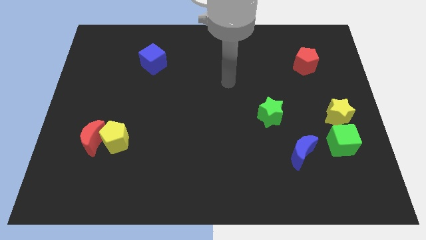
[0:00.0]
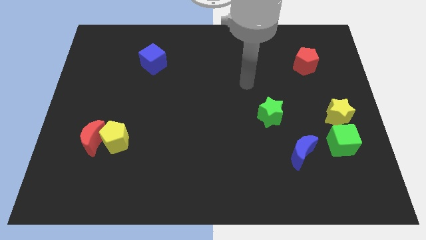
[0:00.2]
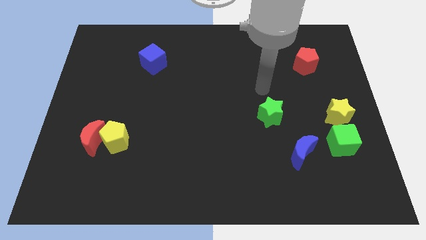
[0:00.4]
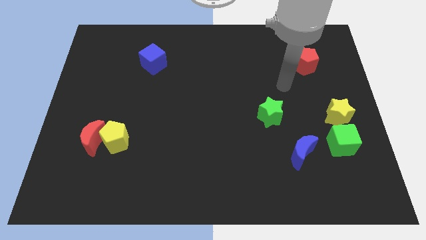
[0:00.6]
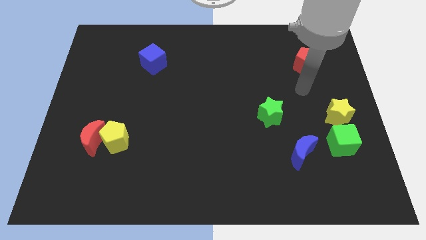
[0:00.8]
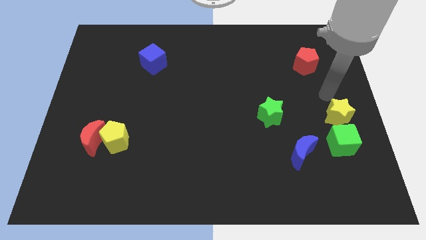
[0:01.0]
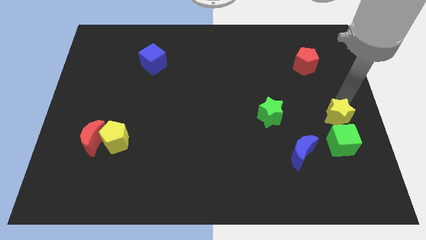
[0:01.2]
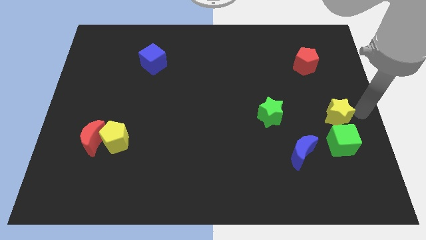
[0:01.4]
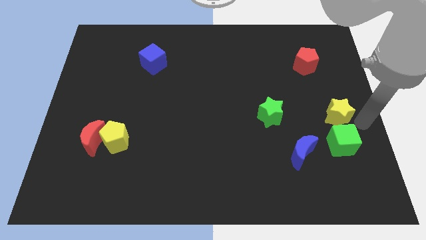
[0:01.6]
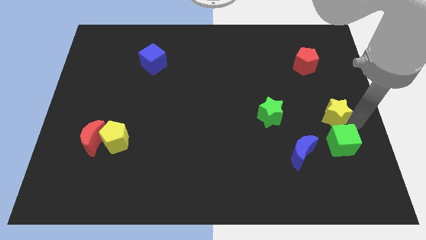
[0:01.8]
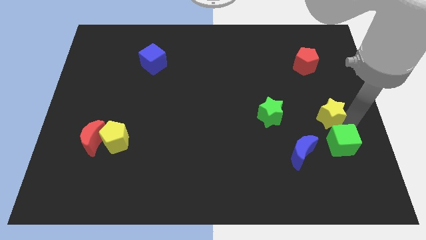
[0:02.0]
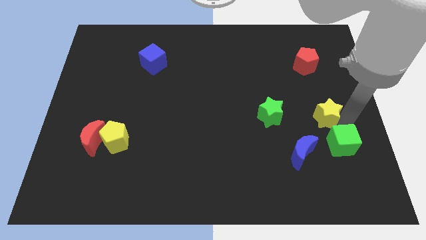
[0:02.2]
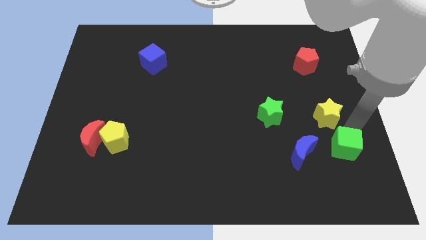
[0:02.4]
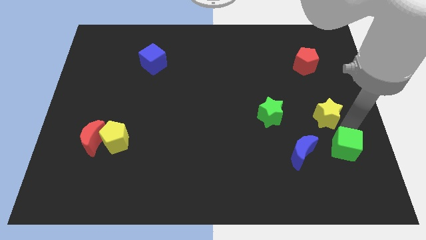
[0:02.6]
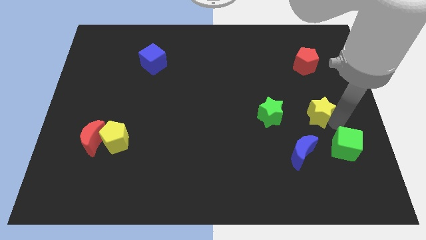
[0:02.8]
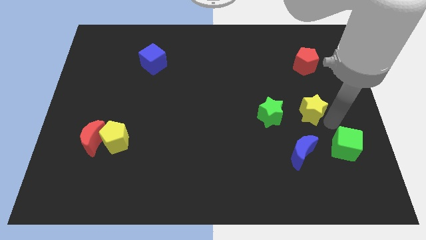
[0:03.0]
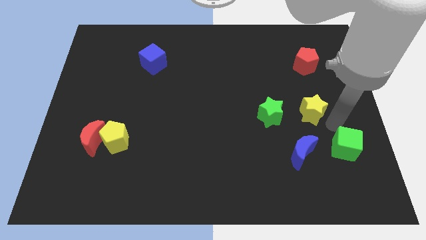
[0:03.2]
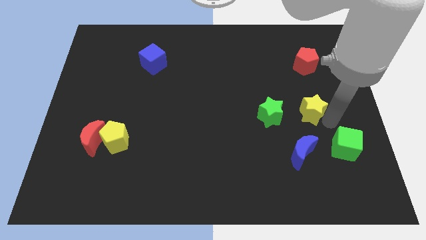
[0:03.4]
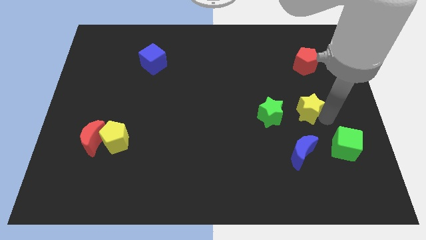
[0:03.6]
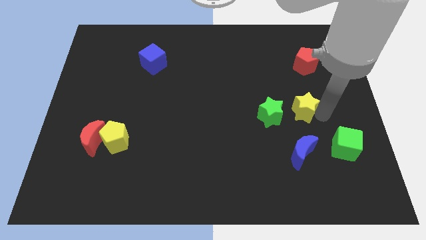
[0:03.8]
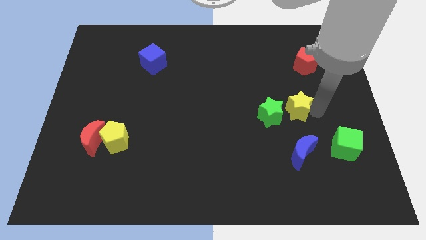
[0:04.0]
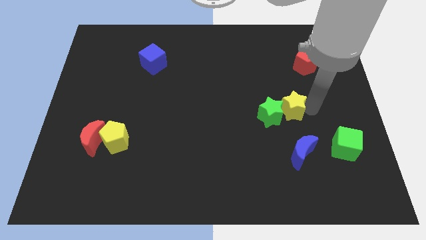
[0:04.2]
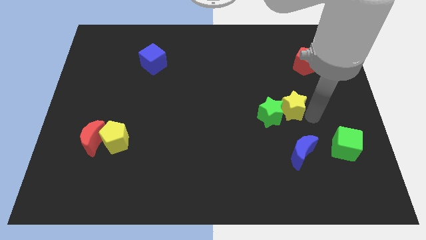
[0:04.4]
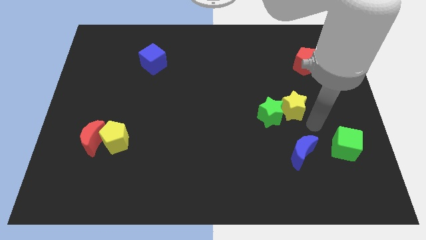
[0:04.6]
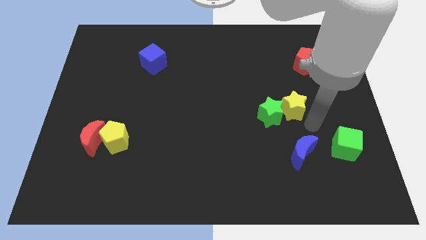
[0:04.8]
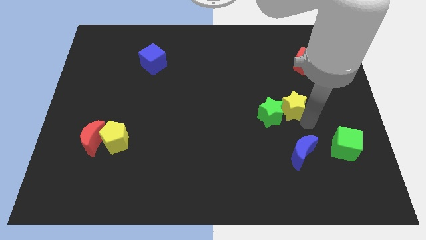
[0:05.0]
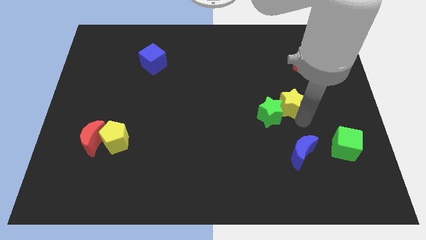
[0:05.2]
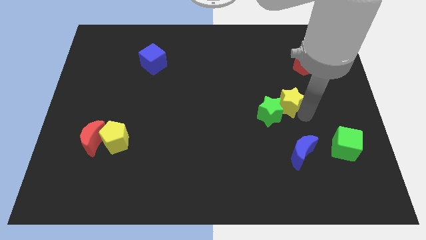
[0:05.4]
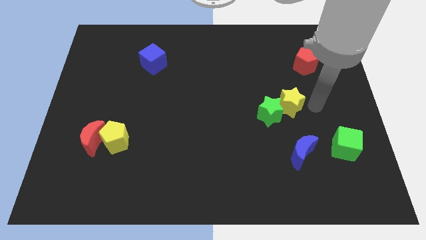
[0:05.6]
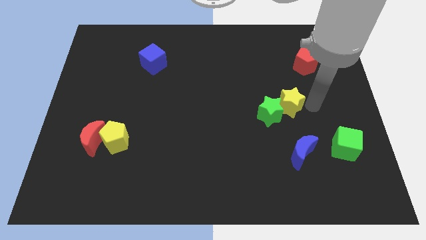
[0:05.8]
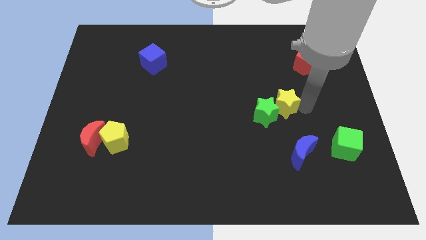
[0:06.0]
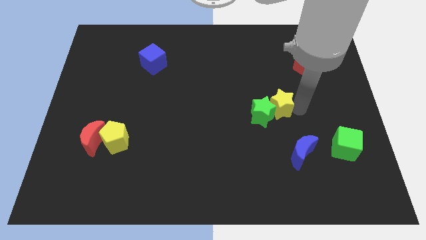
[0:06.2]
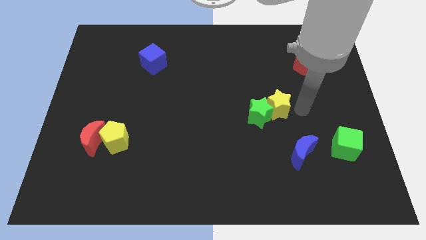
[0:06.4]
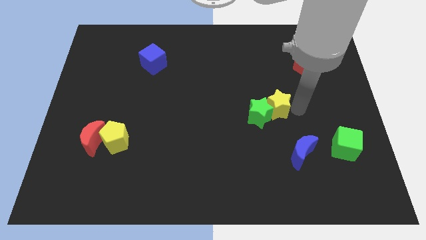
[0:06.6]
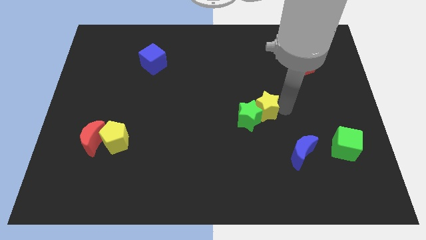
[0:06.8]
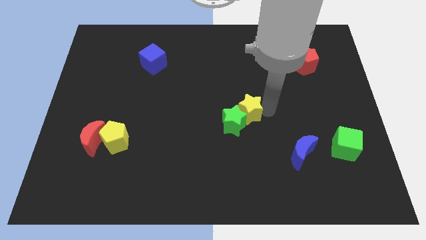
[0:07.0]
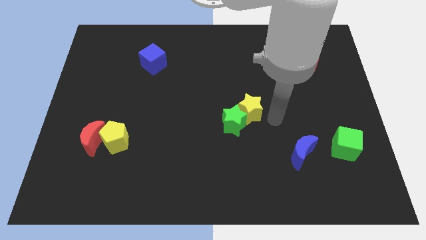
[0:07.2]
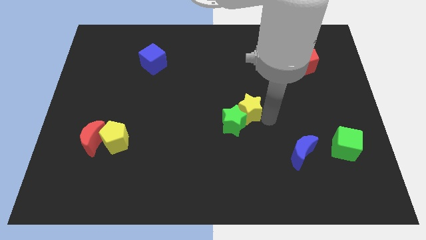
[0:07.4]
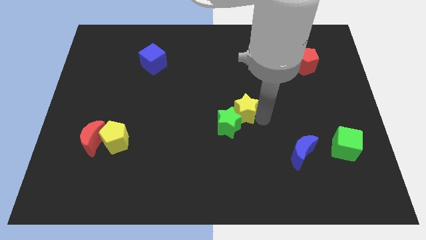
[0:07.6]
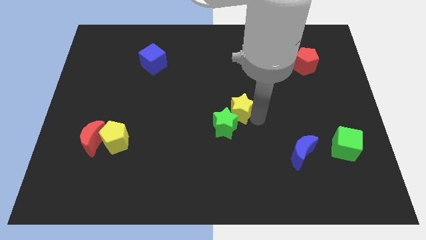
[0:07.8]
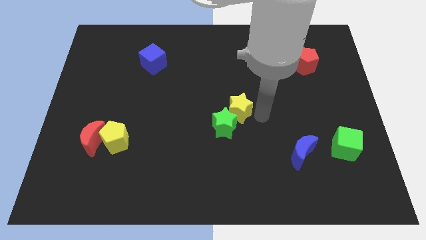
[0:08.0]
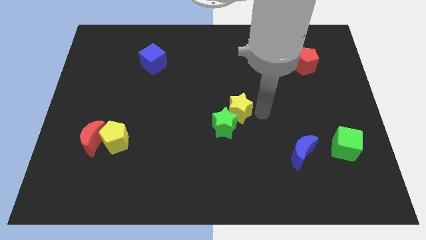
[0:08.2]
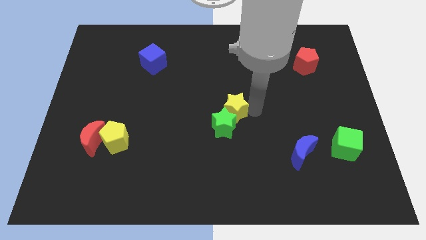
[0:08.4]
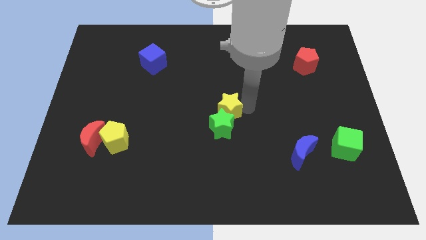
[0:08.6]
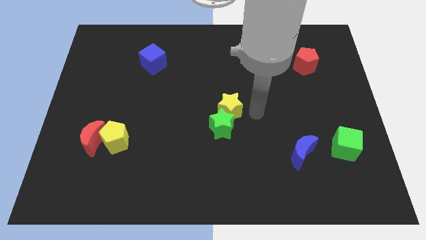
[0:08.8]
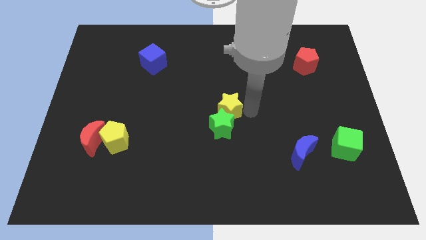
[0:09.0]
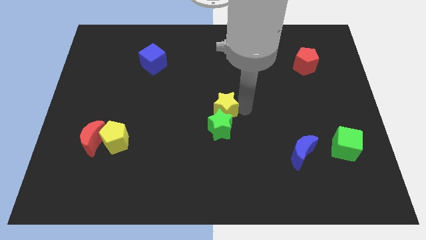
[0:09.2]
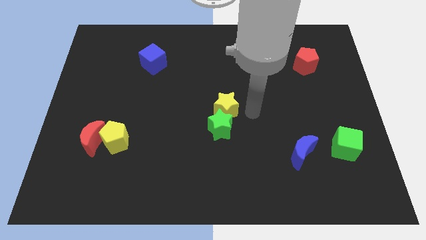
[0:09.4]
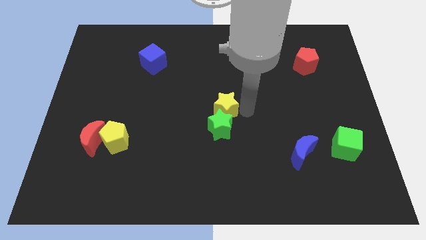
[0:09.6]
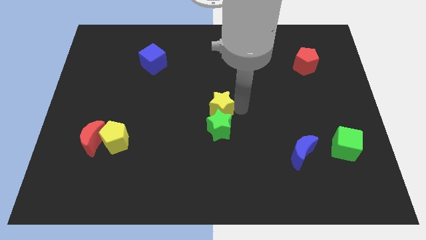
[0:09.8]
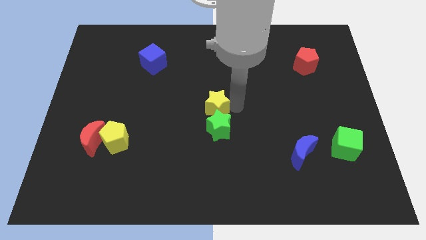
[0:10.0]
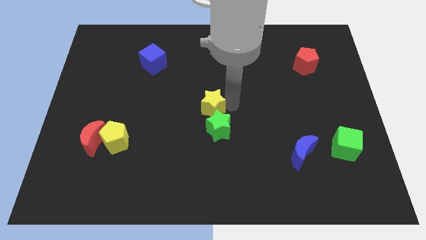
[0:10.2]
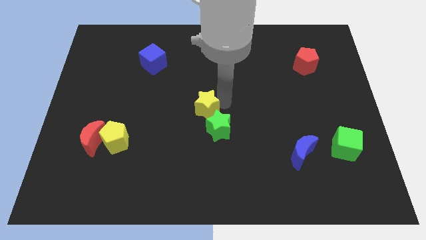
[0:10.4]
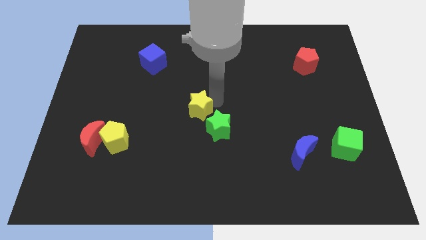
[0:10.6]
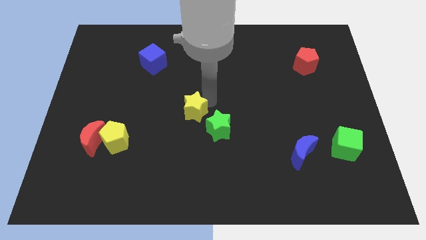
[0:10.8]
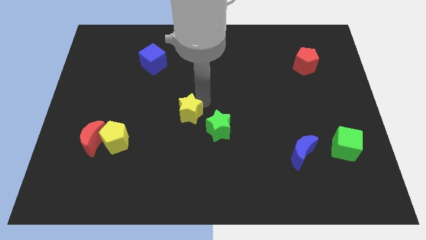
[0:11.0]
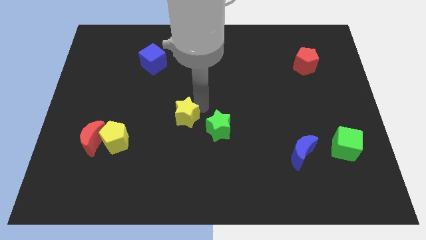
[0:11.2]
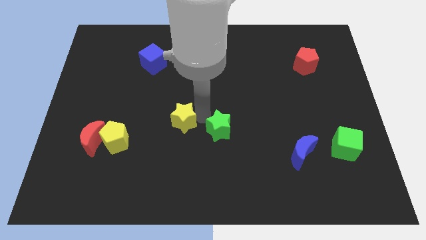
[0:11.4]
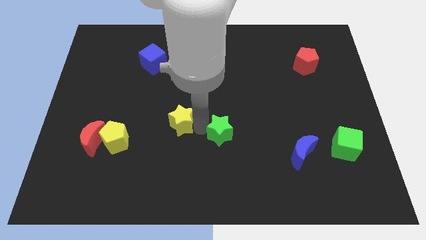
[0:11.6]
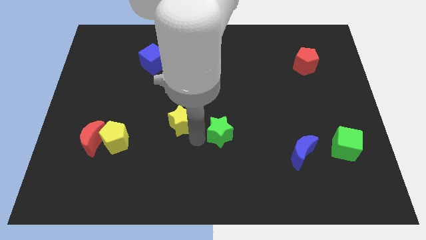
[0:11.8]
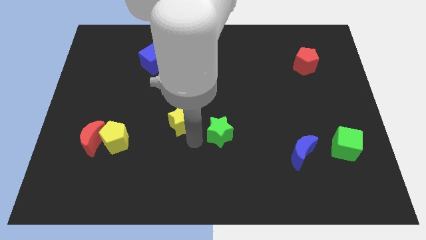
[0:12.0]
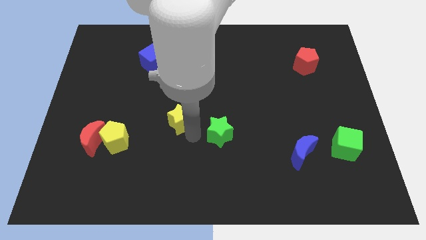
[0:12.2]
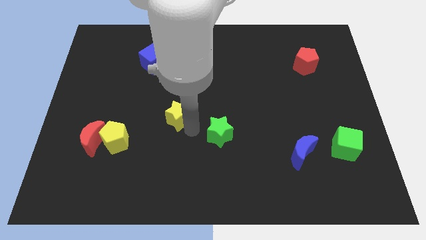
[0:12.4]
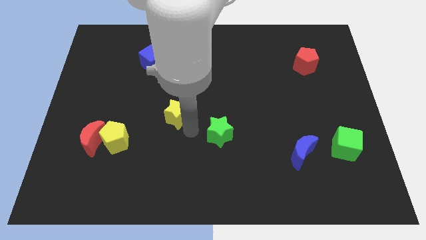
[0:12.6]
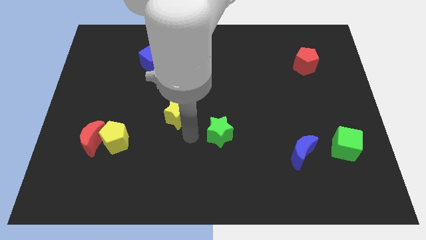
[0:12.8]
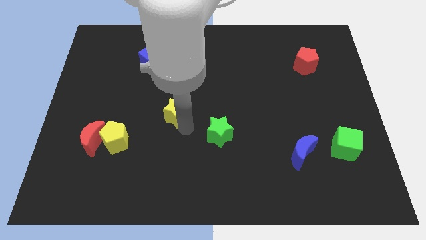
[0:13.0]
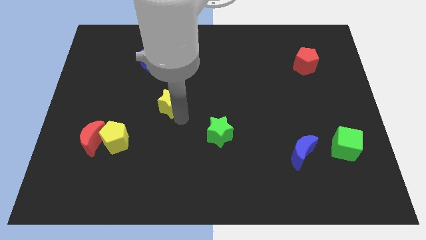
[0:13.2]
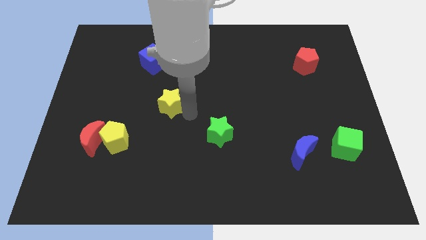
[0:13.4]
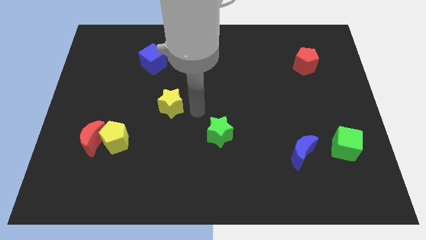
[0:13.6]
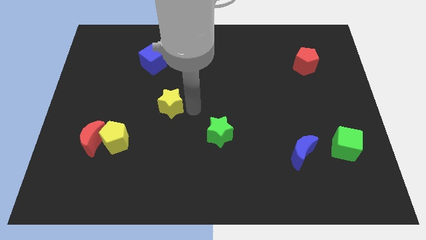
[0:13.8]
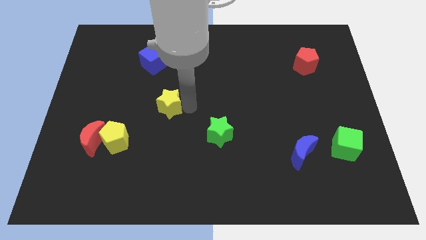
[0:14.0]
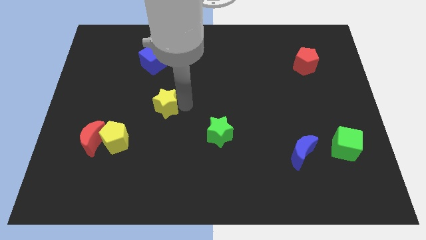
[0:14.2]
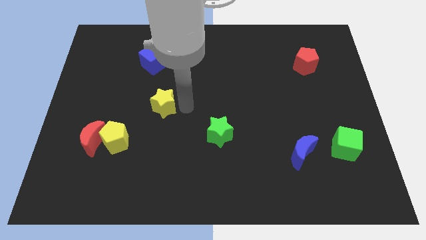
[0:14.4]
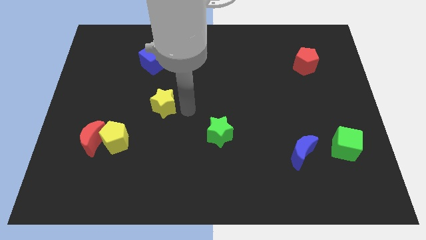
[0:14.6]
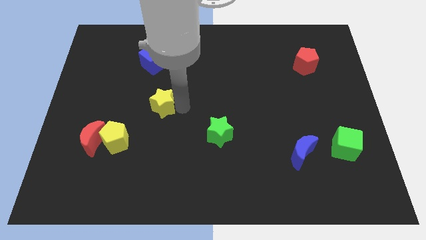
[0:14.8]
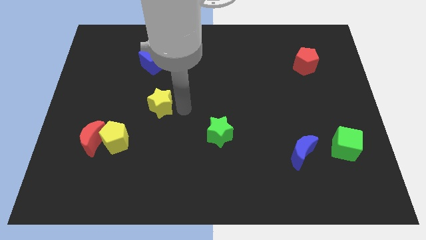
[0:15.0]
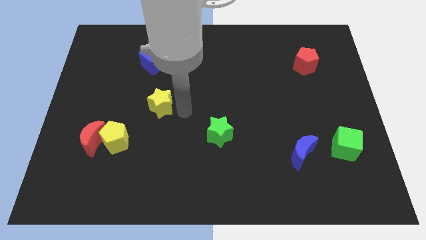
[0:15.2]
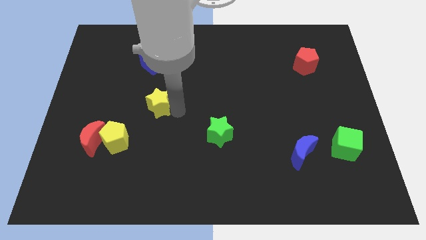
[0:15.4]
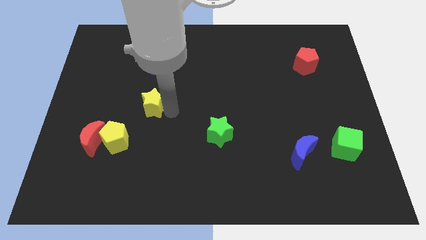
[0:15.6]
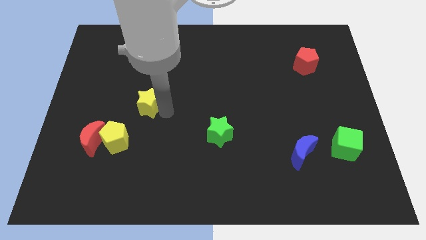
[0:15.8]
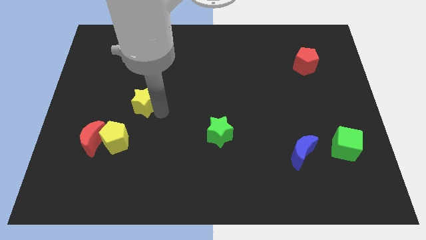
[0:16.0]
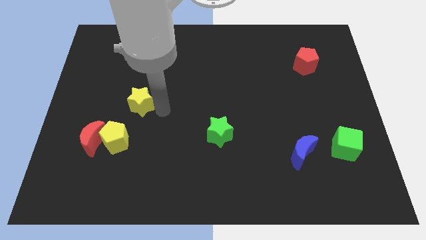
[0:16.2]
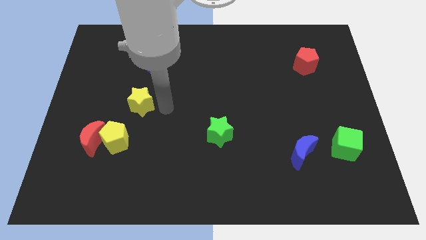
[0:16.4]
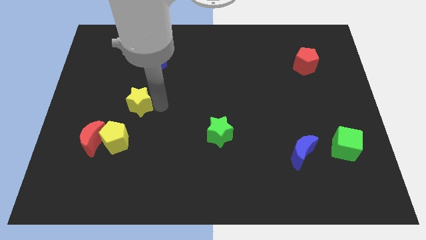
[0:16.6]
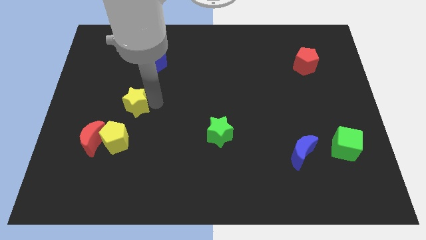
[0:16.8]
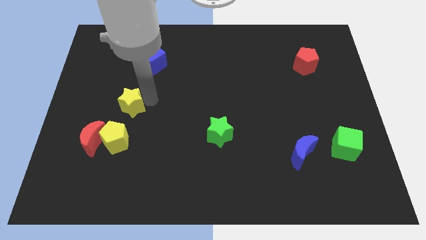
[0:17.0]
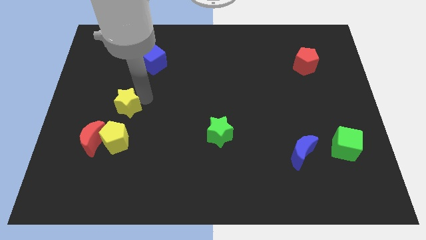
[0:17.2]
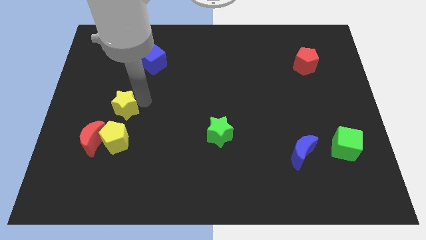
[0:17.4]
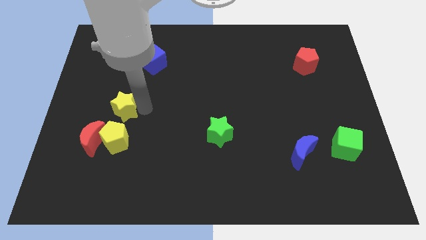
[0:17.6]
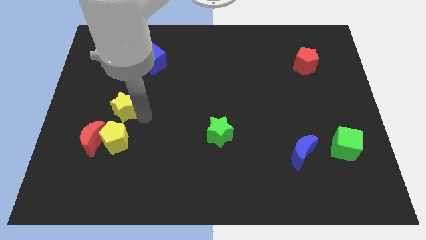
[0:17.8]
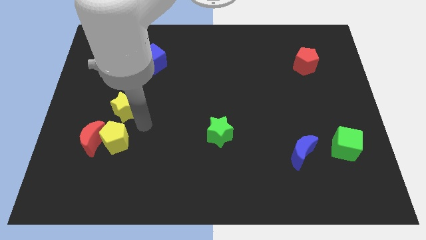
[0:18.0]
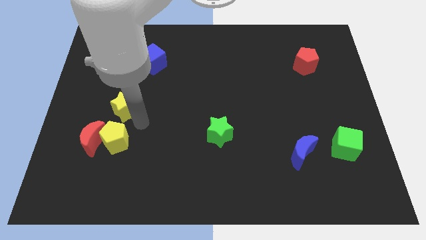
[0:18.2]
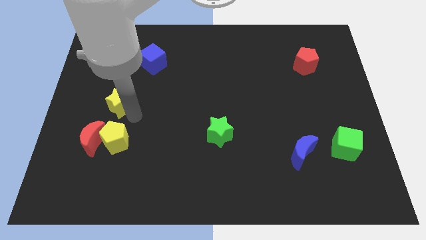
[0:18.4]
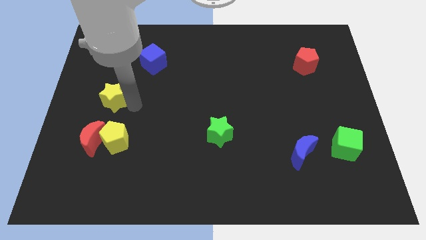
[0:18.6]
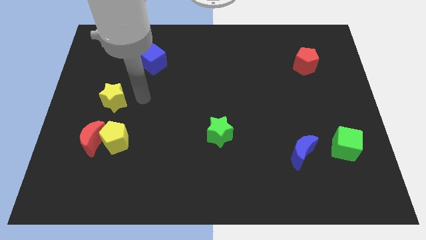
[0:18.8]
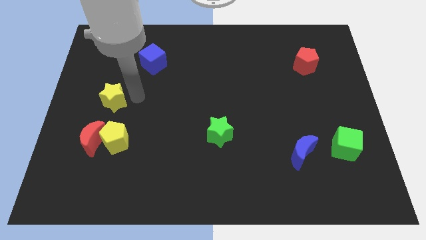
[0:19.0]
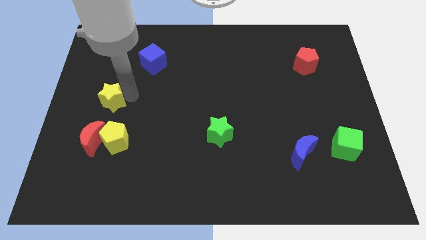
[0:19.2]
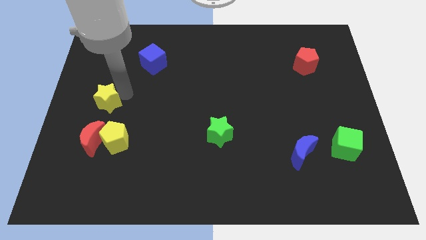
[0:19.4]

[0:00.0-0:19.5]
put the yellow star to the left side of the board
